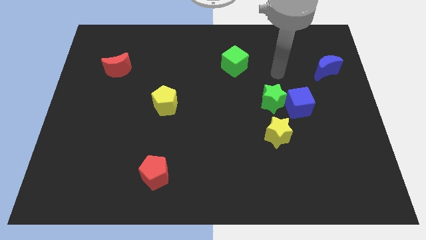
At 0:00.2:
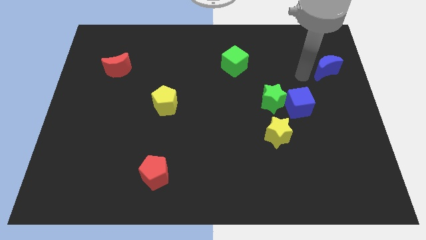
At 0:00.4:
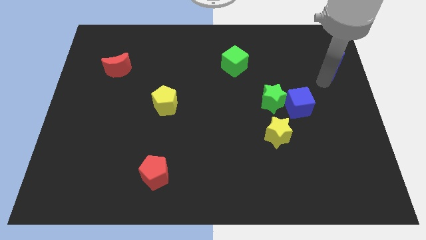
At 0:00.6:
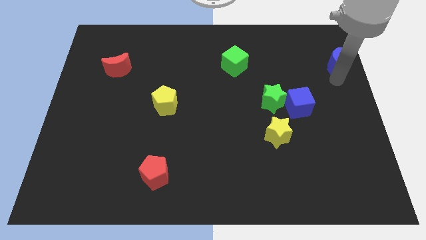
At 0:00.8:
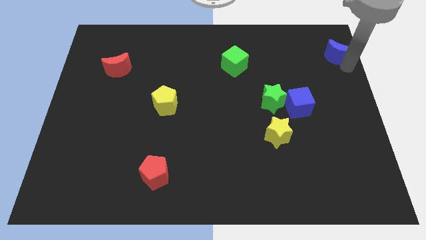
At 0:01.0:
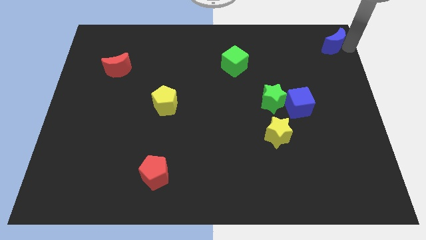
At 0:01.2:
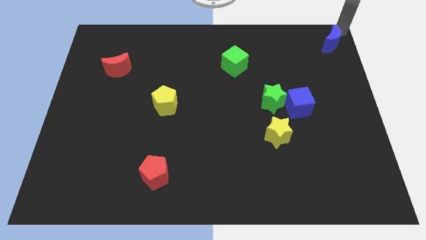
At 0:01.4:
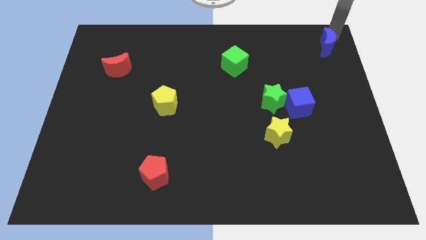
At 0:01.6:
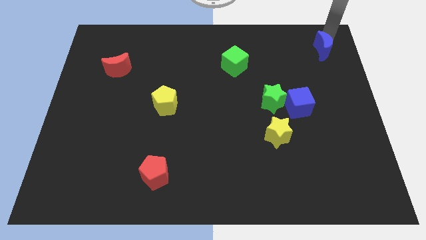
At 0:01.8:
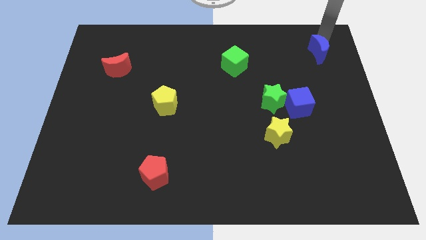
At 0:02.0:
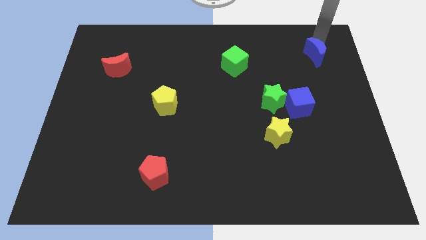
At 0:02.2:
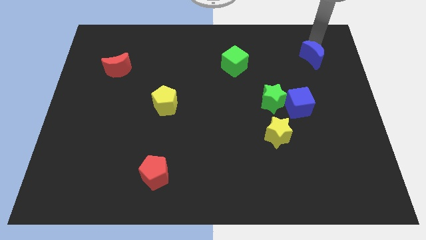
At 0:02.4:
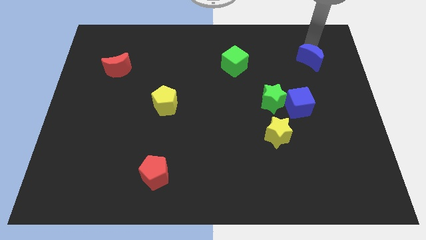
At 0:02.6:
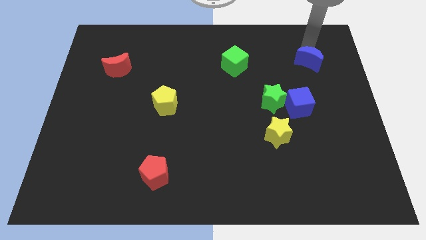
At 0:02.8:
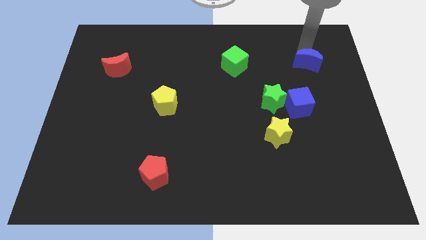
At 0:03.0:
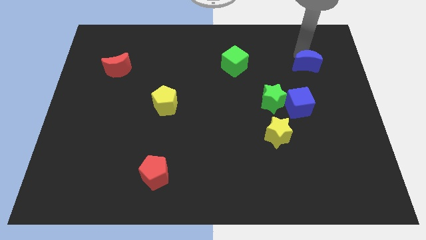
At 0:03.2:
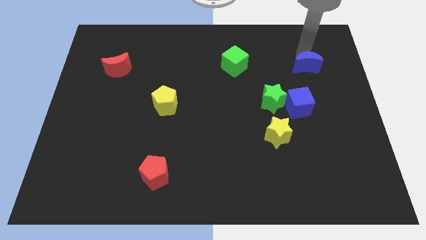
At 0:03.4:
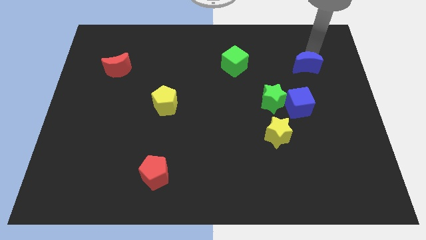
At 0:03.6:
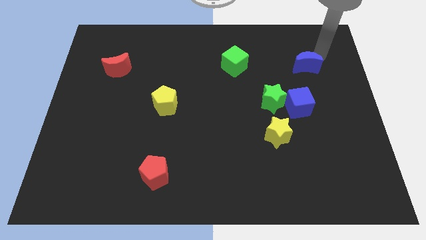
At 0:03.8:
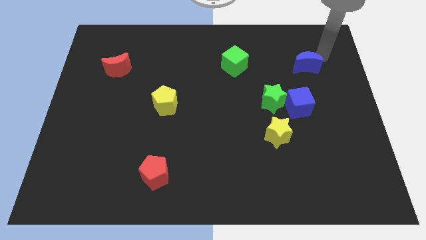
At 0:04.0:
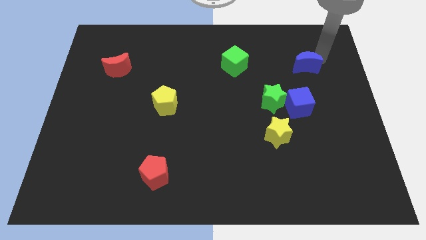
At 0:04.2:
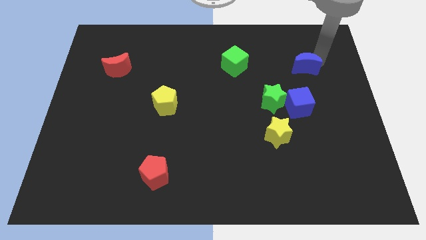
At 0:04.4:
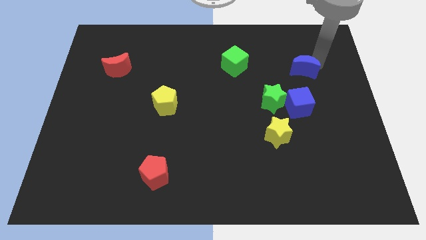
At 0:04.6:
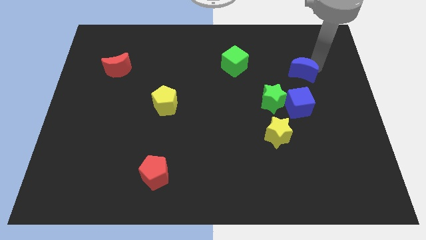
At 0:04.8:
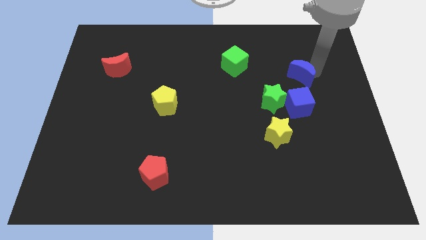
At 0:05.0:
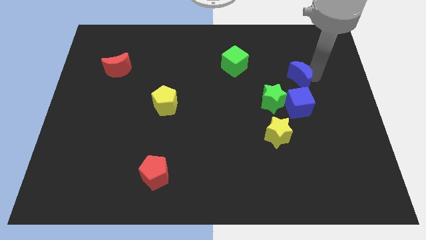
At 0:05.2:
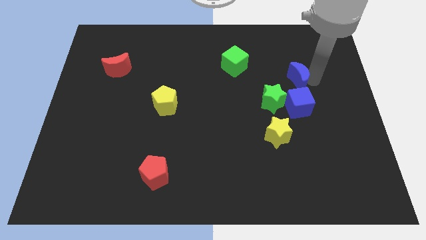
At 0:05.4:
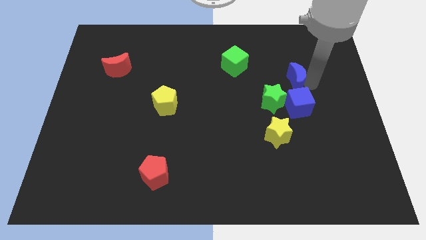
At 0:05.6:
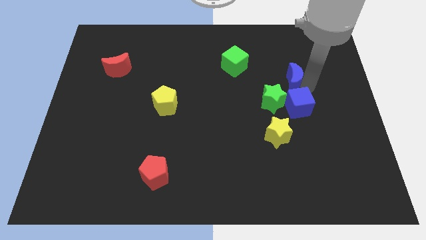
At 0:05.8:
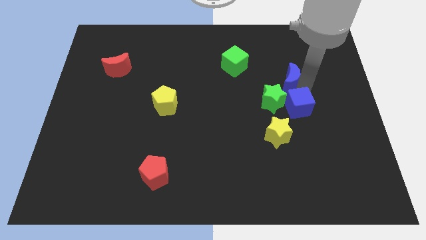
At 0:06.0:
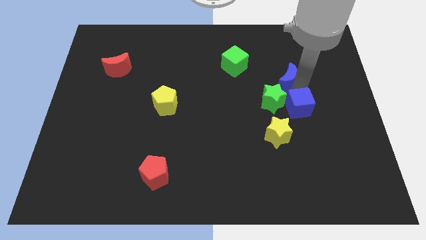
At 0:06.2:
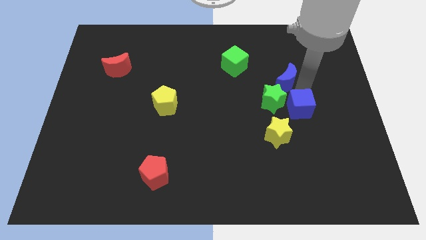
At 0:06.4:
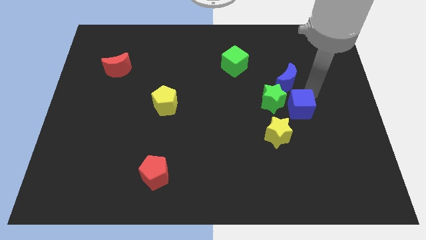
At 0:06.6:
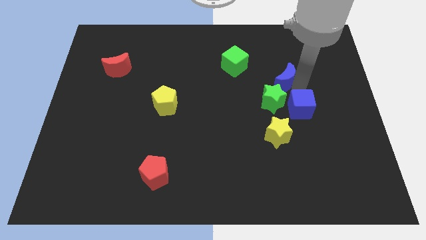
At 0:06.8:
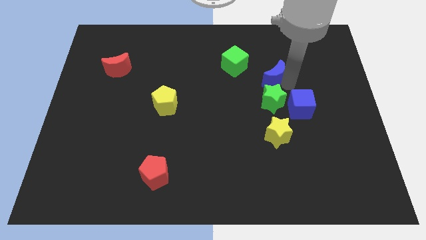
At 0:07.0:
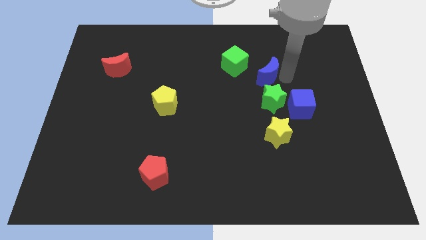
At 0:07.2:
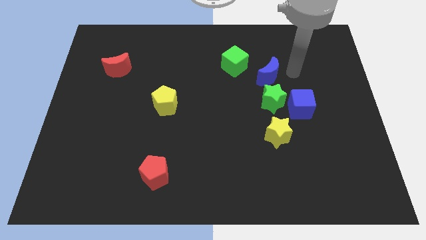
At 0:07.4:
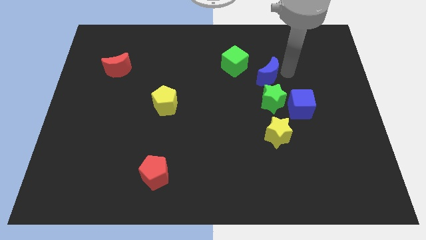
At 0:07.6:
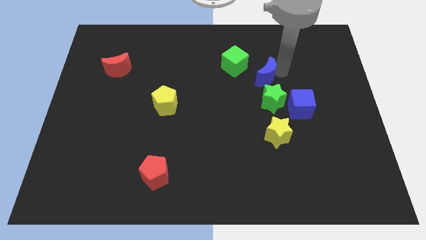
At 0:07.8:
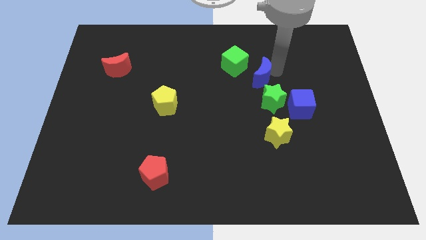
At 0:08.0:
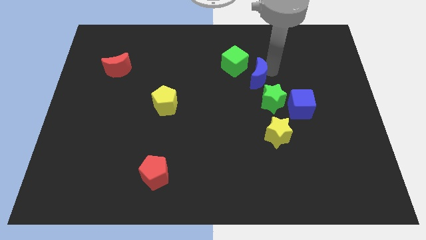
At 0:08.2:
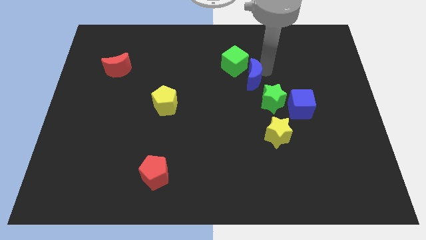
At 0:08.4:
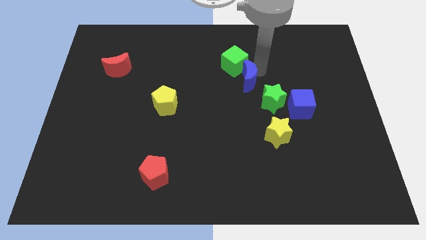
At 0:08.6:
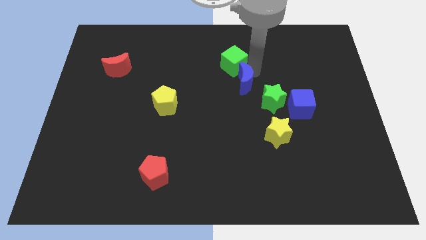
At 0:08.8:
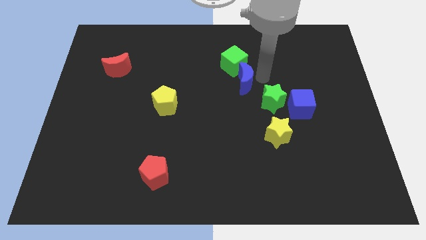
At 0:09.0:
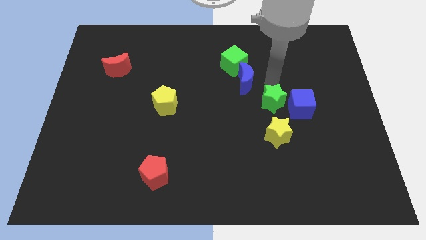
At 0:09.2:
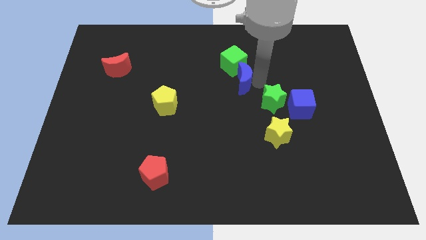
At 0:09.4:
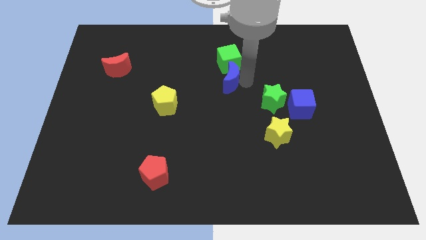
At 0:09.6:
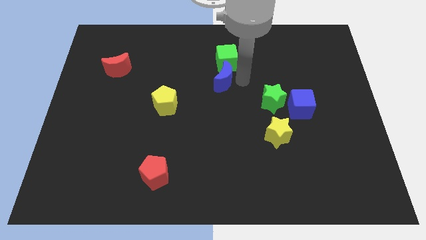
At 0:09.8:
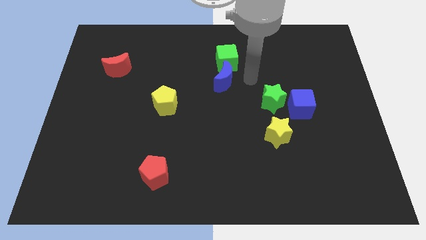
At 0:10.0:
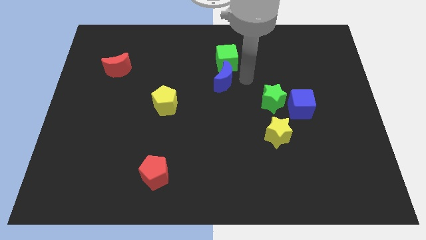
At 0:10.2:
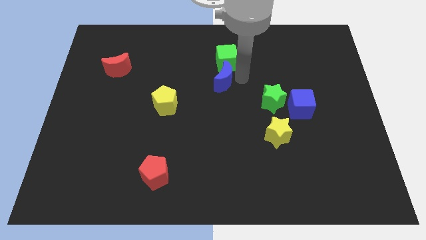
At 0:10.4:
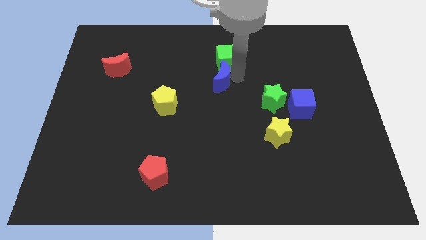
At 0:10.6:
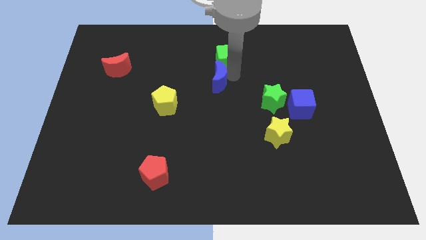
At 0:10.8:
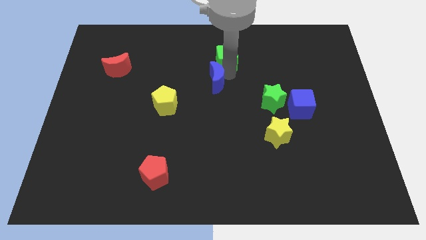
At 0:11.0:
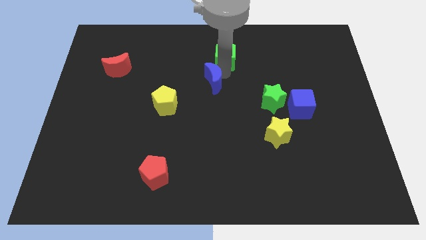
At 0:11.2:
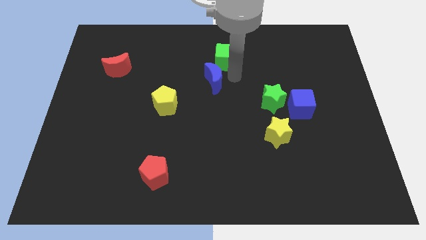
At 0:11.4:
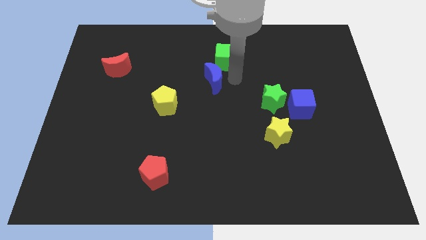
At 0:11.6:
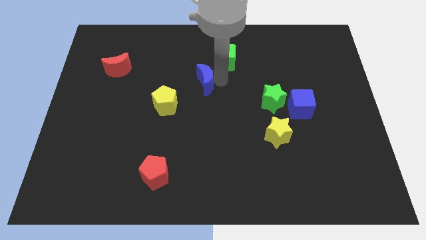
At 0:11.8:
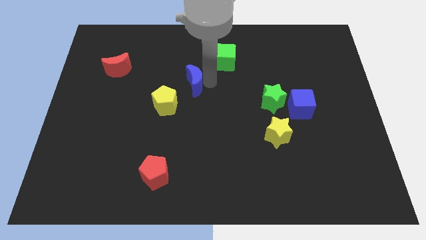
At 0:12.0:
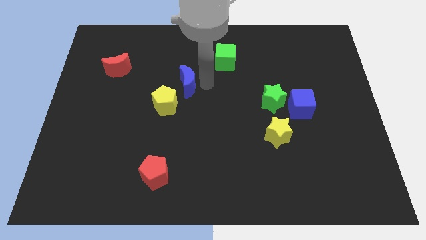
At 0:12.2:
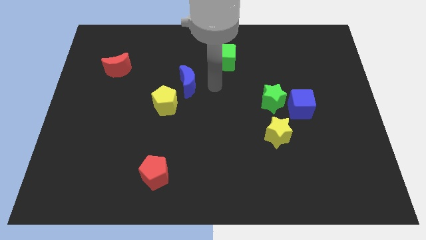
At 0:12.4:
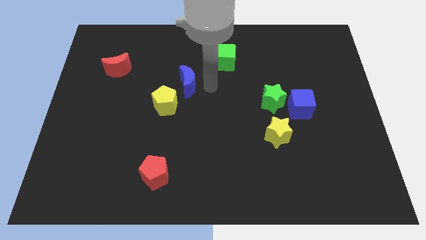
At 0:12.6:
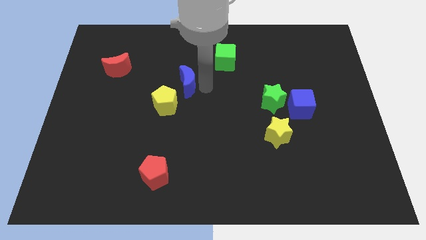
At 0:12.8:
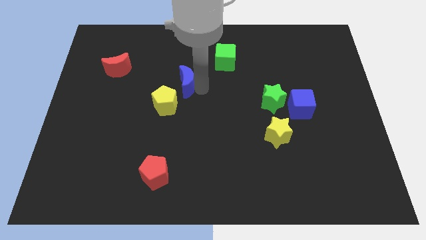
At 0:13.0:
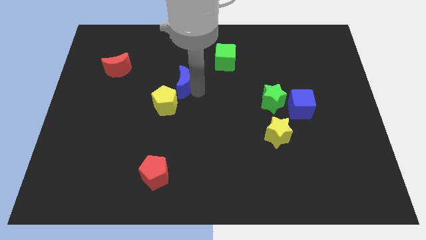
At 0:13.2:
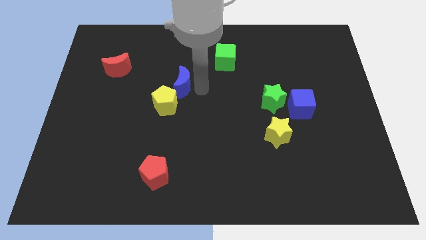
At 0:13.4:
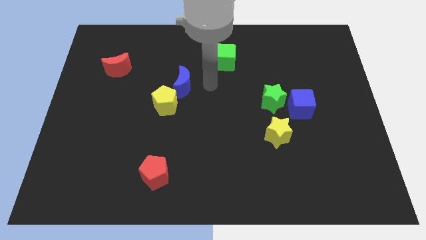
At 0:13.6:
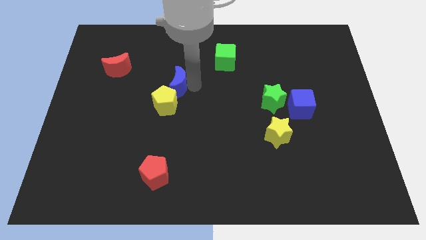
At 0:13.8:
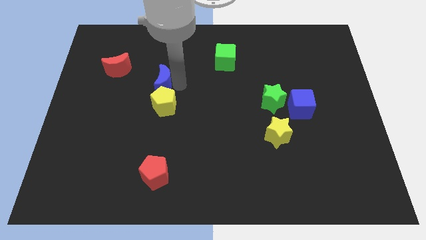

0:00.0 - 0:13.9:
push the blue moon to the top left of the yellow pentagon

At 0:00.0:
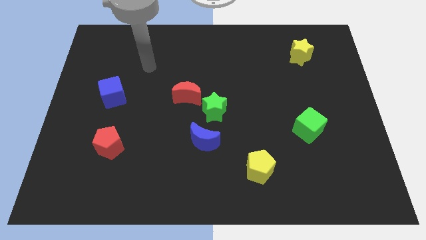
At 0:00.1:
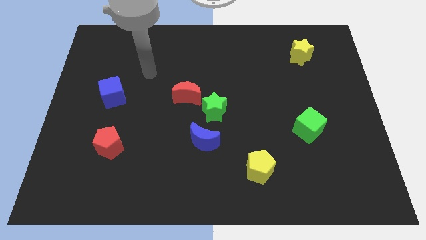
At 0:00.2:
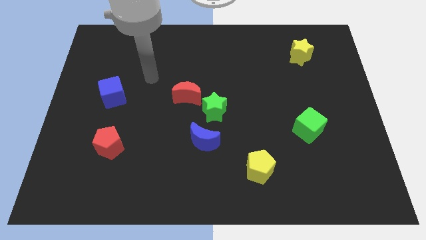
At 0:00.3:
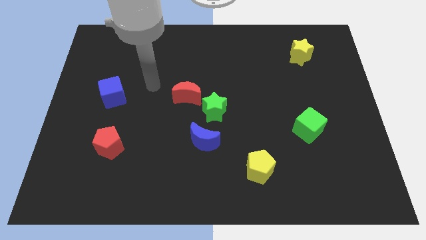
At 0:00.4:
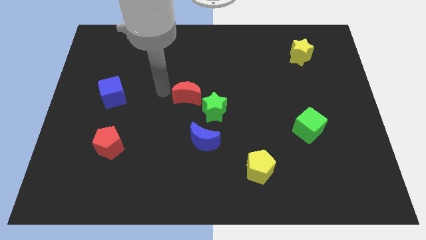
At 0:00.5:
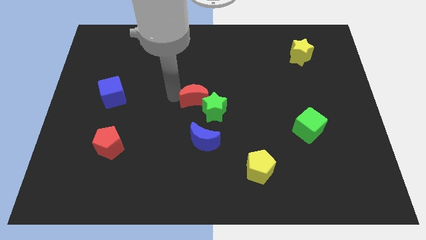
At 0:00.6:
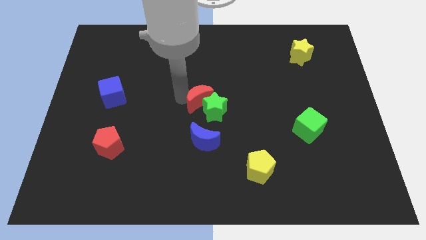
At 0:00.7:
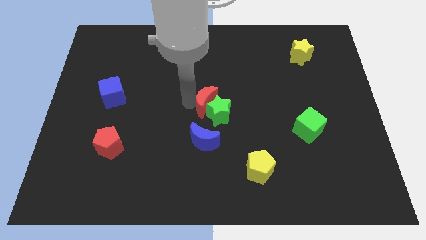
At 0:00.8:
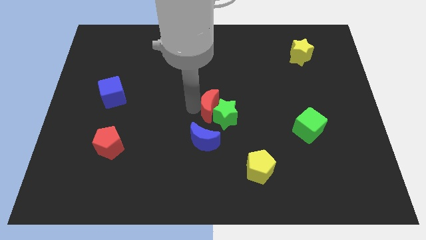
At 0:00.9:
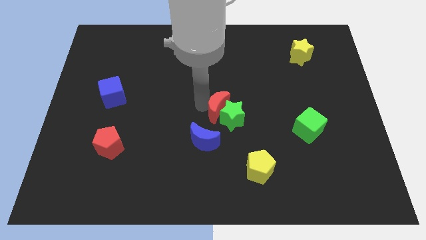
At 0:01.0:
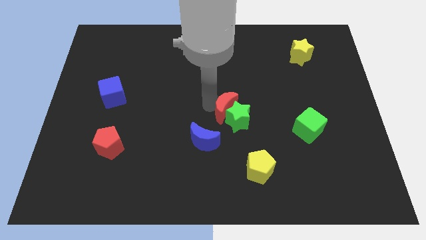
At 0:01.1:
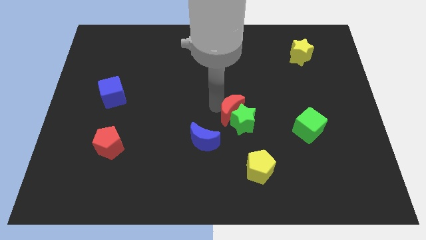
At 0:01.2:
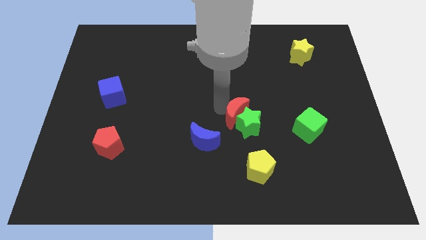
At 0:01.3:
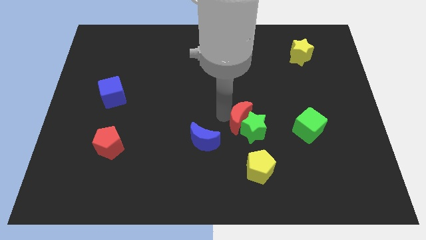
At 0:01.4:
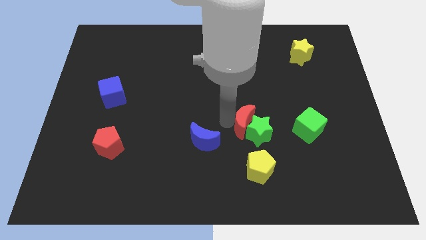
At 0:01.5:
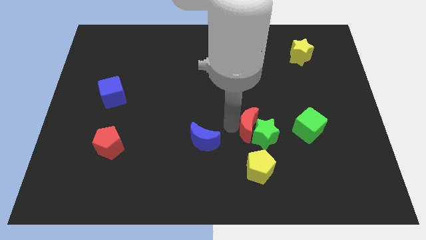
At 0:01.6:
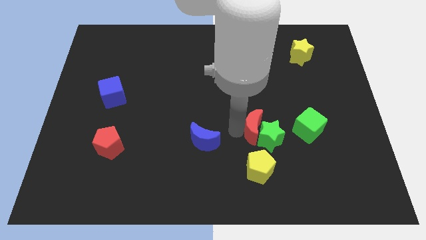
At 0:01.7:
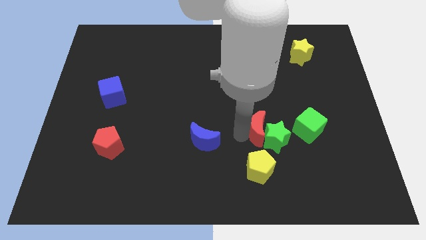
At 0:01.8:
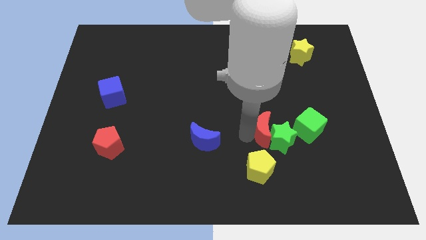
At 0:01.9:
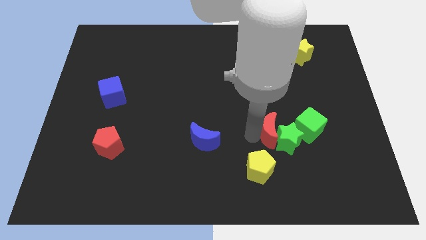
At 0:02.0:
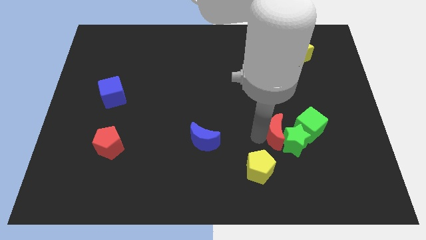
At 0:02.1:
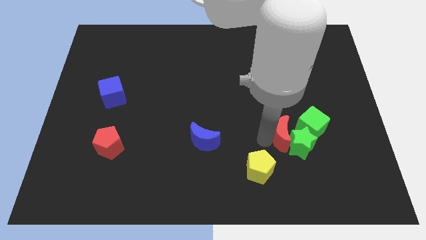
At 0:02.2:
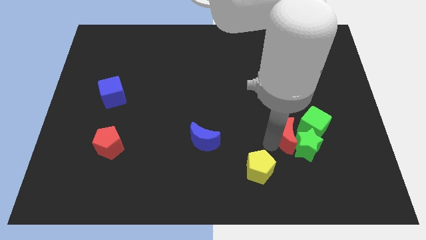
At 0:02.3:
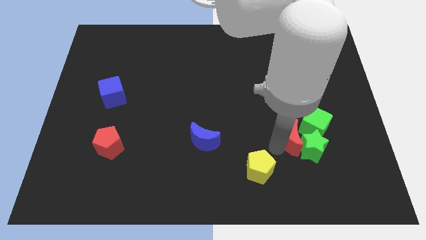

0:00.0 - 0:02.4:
move the green star to the bottom right side of the green cube
